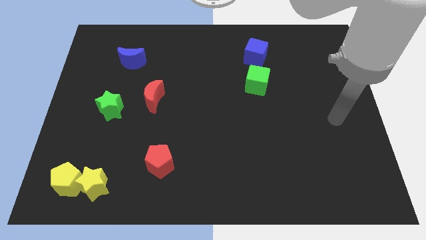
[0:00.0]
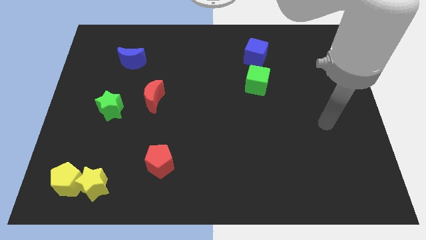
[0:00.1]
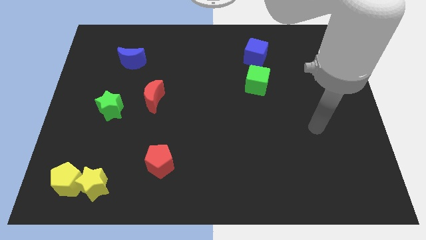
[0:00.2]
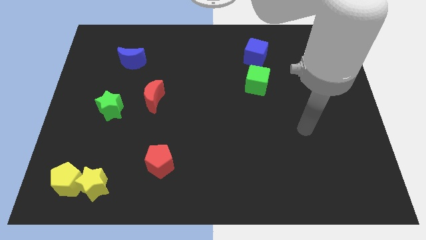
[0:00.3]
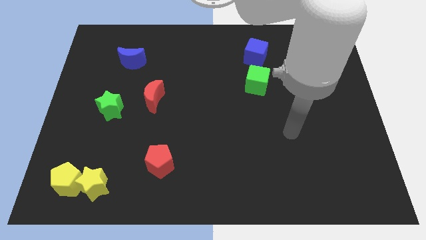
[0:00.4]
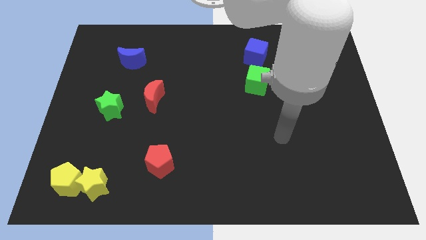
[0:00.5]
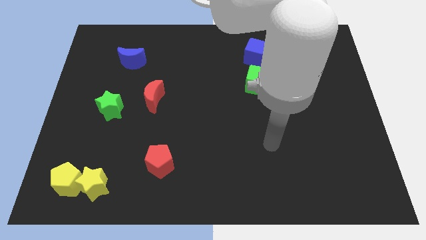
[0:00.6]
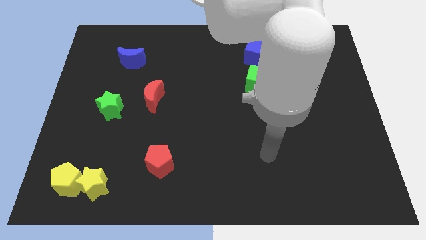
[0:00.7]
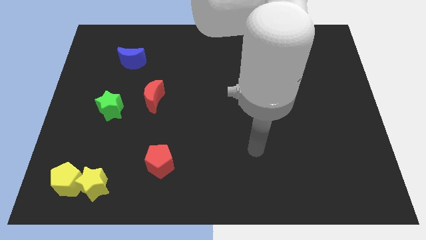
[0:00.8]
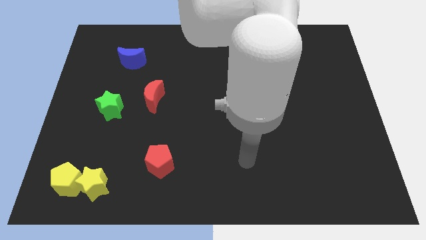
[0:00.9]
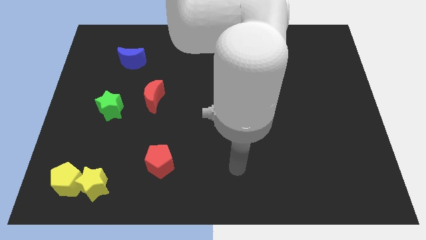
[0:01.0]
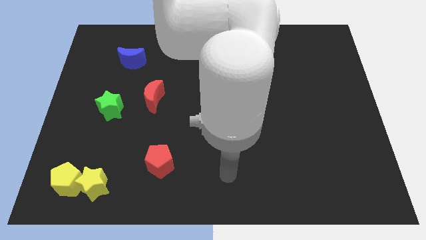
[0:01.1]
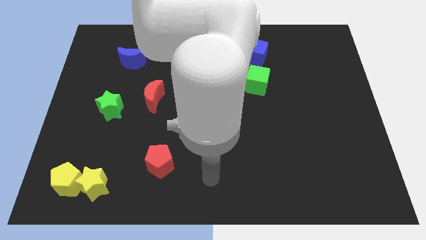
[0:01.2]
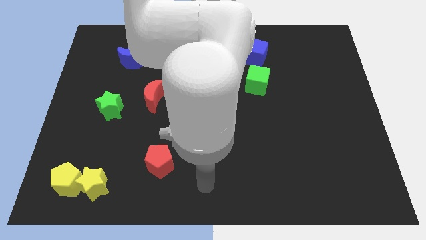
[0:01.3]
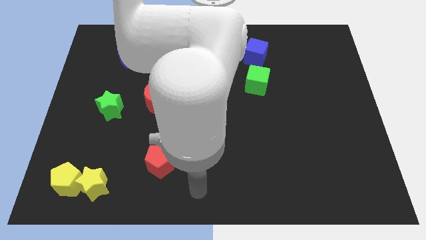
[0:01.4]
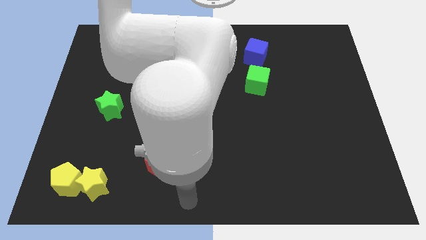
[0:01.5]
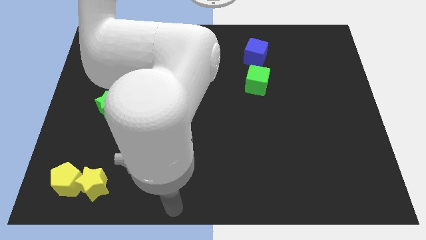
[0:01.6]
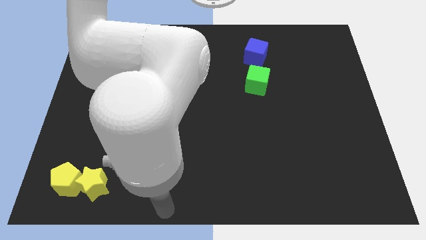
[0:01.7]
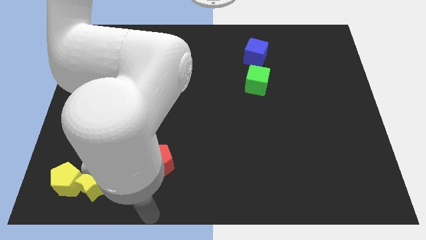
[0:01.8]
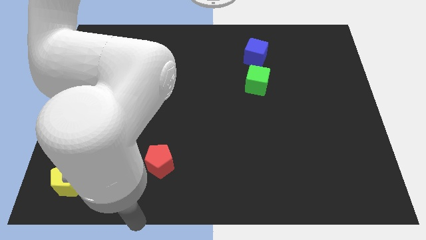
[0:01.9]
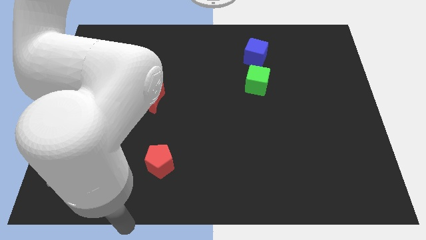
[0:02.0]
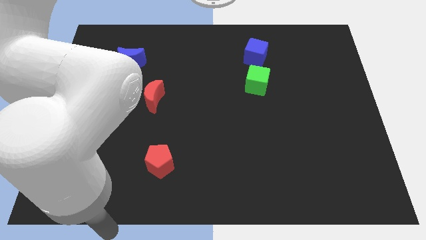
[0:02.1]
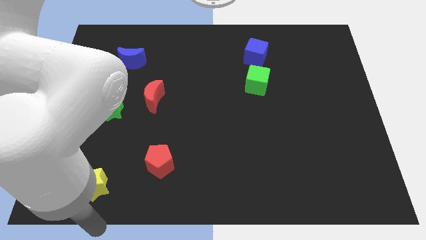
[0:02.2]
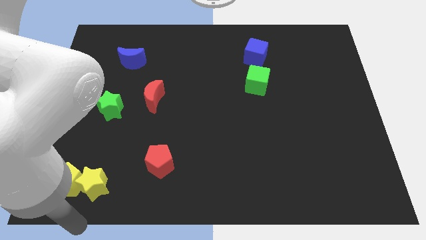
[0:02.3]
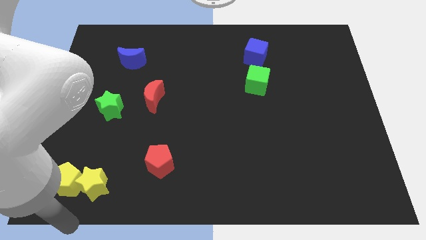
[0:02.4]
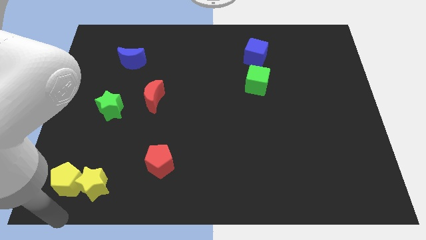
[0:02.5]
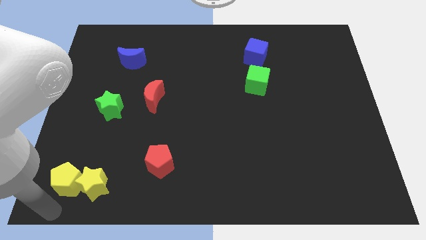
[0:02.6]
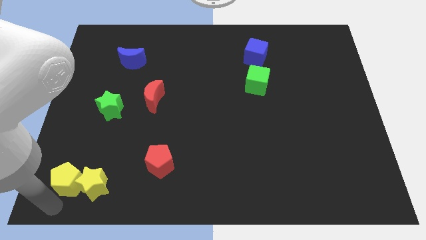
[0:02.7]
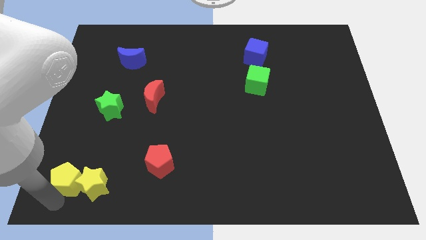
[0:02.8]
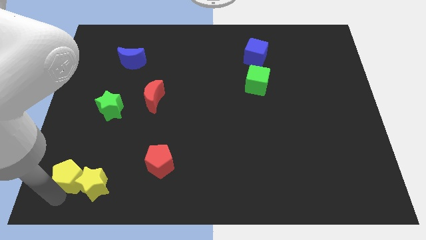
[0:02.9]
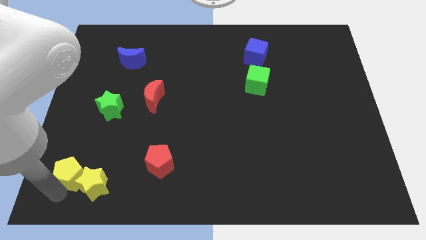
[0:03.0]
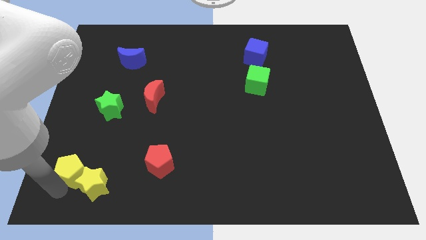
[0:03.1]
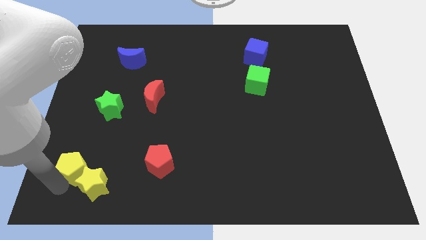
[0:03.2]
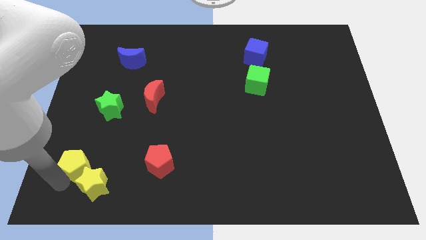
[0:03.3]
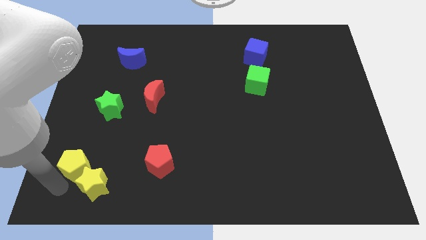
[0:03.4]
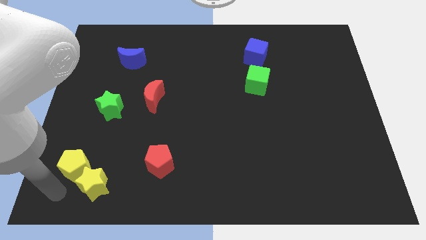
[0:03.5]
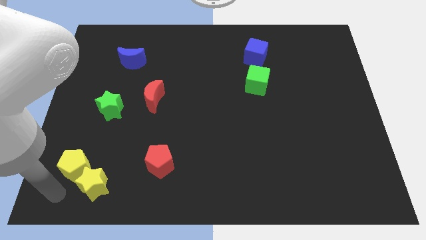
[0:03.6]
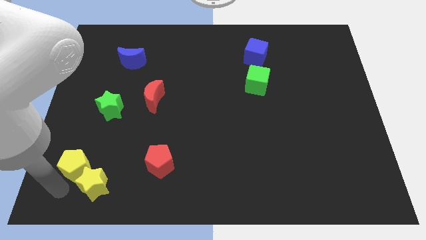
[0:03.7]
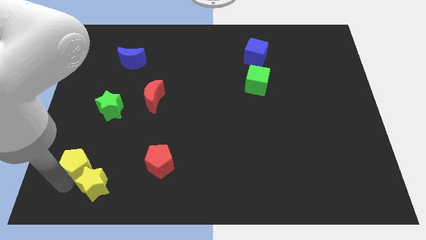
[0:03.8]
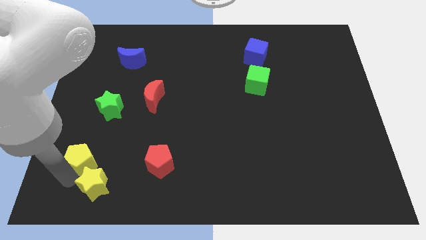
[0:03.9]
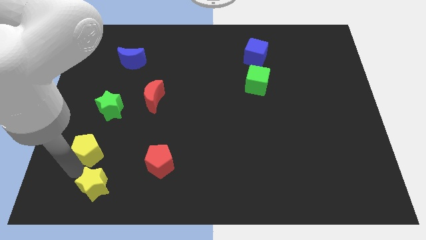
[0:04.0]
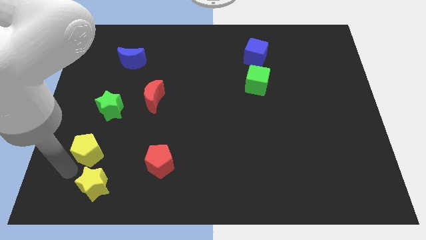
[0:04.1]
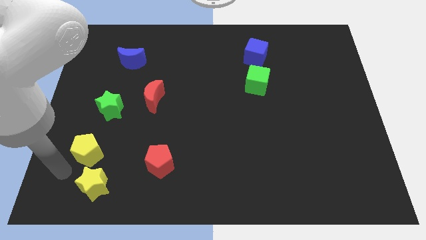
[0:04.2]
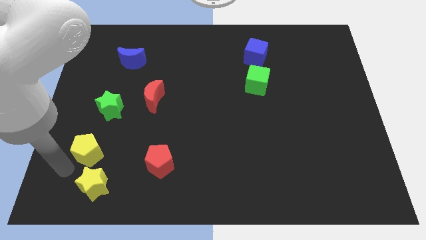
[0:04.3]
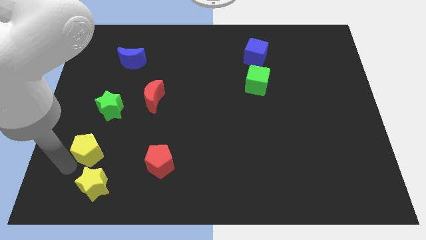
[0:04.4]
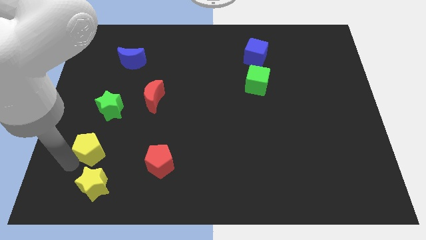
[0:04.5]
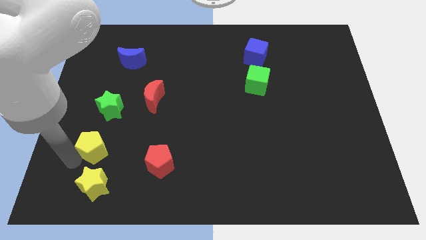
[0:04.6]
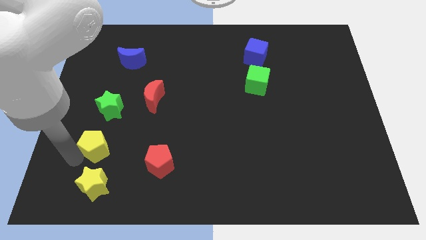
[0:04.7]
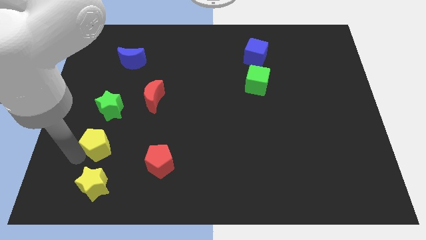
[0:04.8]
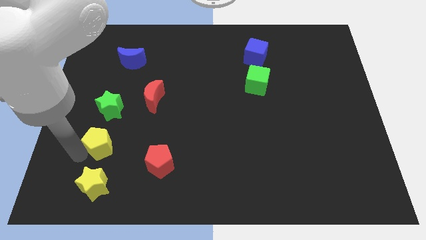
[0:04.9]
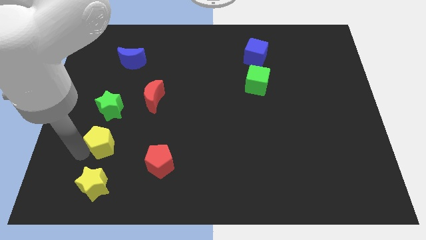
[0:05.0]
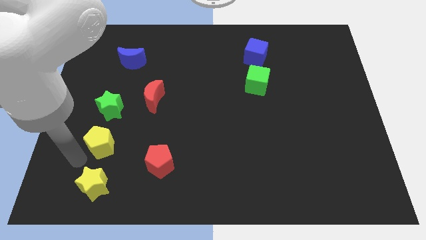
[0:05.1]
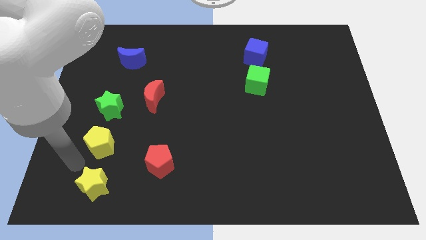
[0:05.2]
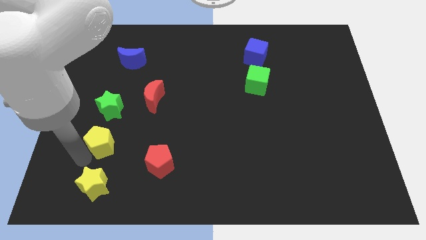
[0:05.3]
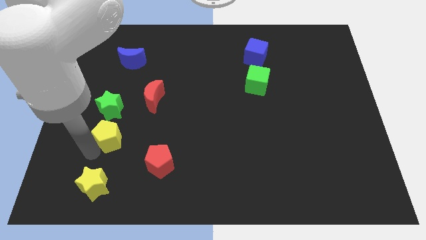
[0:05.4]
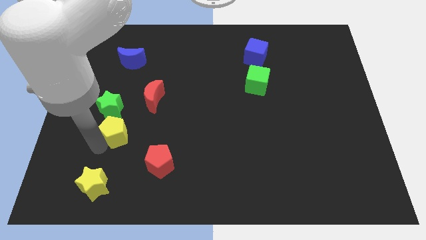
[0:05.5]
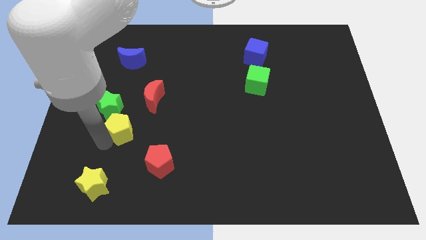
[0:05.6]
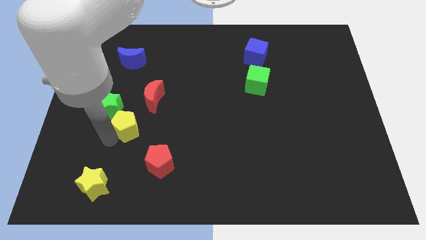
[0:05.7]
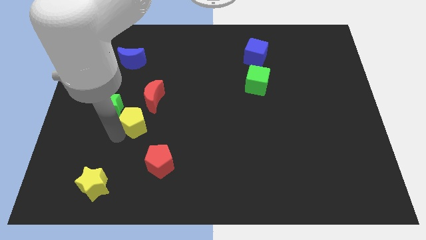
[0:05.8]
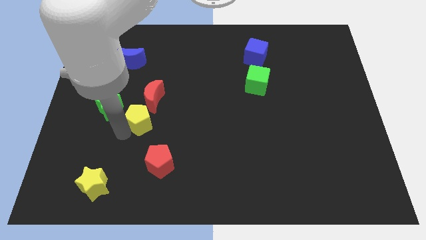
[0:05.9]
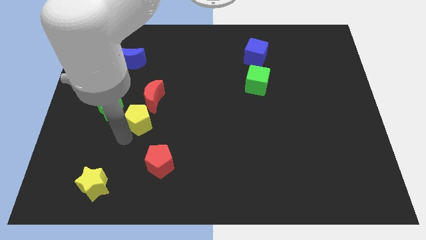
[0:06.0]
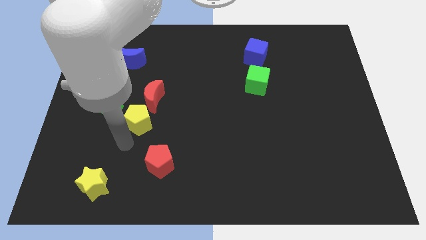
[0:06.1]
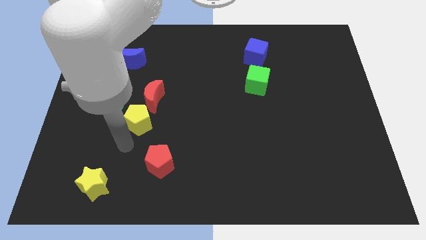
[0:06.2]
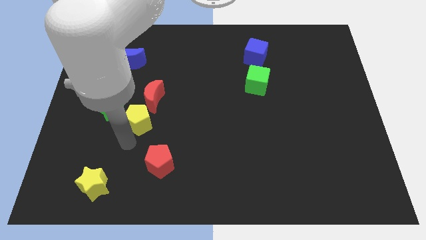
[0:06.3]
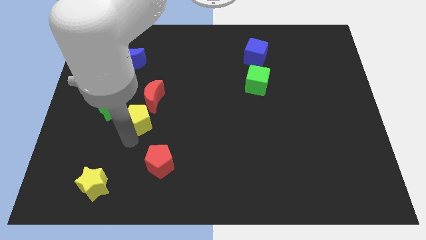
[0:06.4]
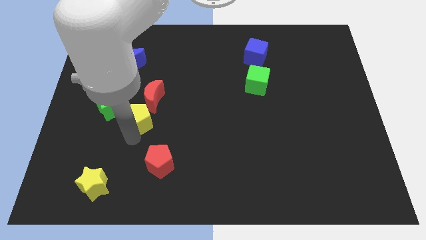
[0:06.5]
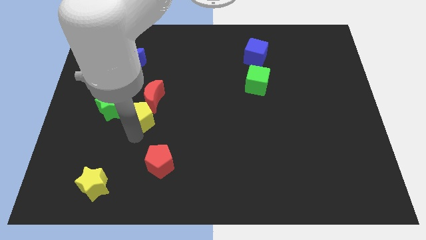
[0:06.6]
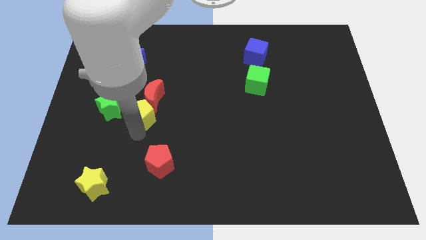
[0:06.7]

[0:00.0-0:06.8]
move the yellow pentagon towards the red moon

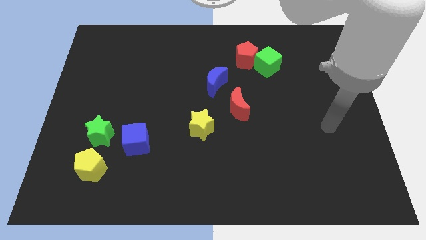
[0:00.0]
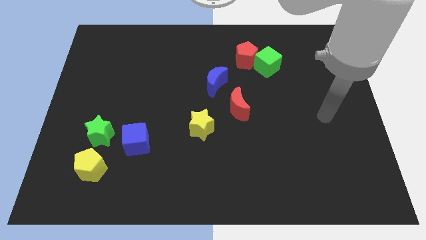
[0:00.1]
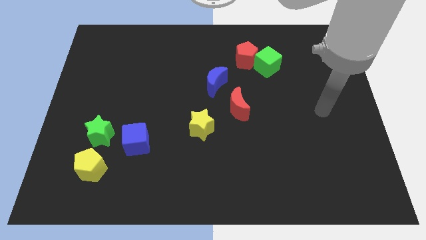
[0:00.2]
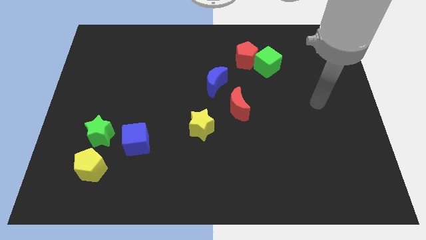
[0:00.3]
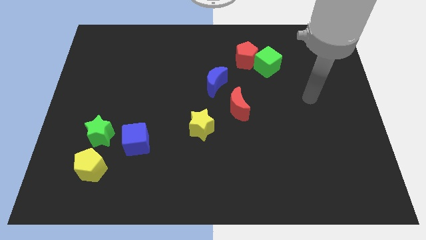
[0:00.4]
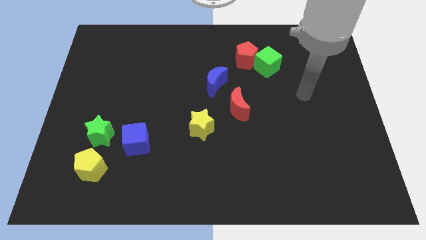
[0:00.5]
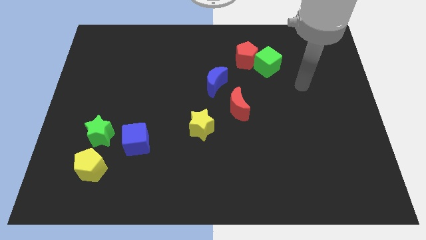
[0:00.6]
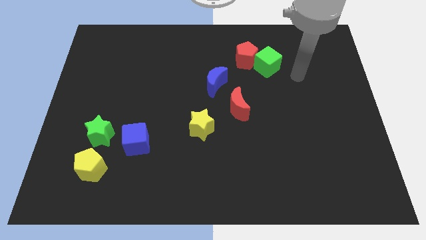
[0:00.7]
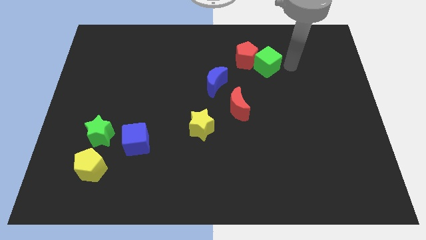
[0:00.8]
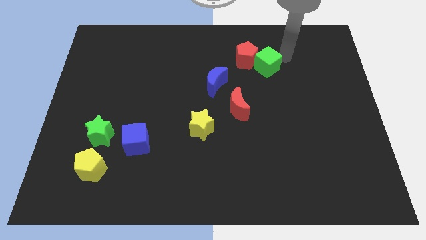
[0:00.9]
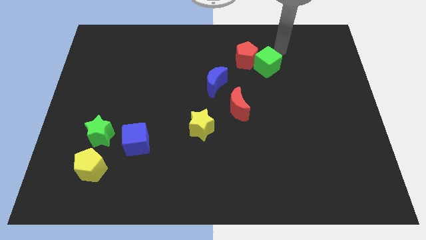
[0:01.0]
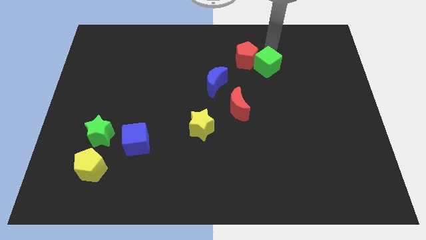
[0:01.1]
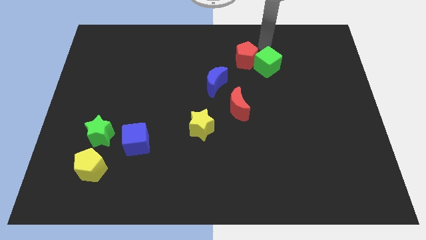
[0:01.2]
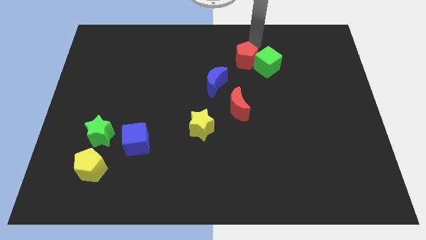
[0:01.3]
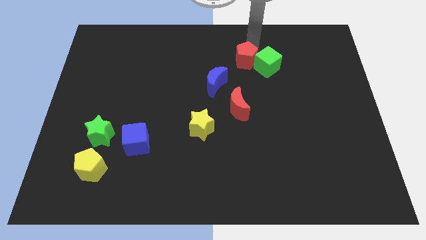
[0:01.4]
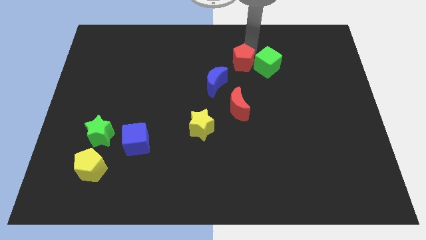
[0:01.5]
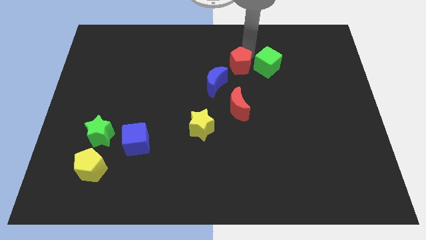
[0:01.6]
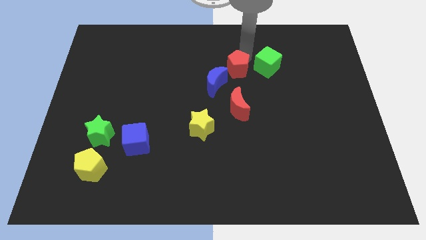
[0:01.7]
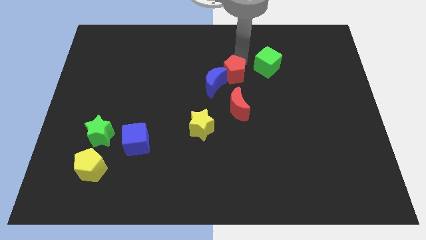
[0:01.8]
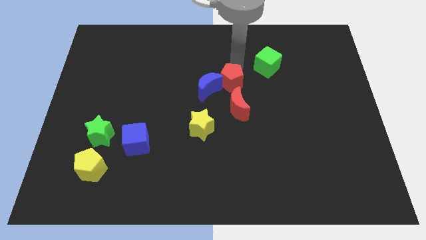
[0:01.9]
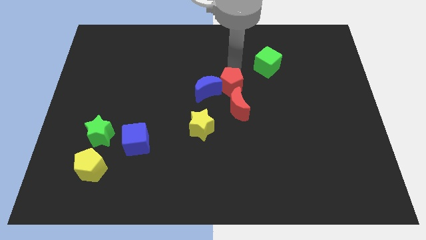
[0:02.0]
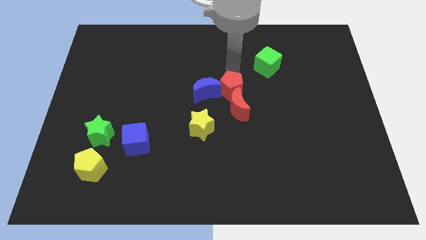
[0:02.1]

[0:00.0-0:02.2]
push the red pentagon close to the red moon
